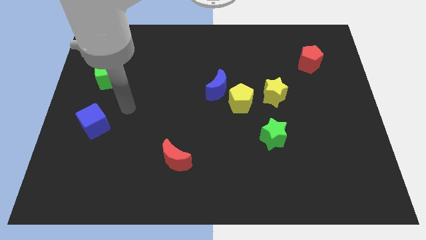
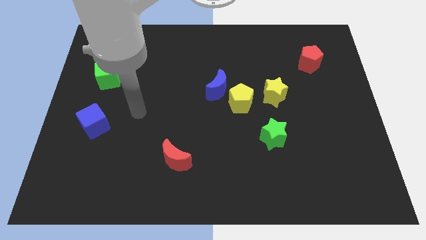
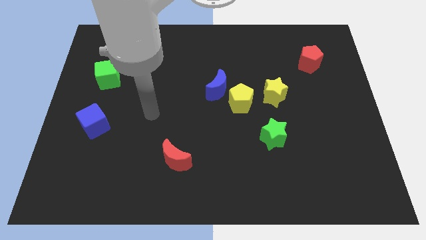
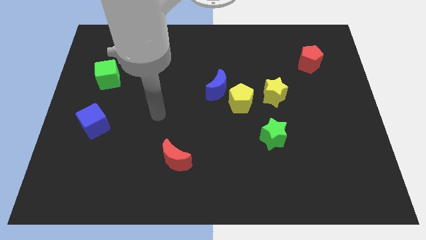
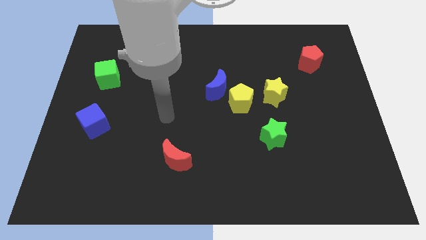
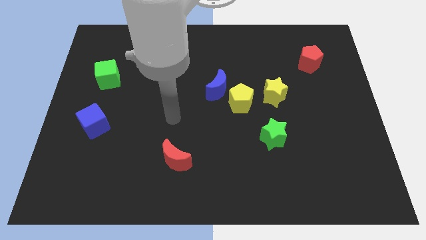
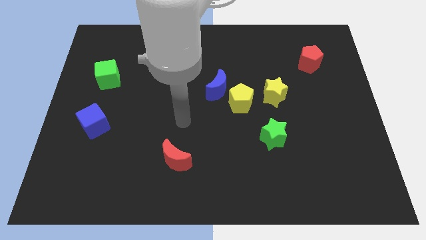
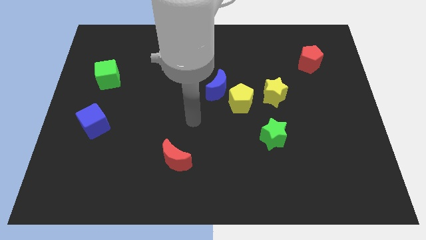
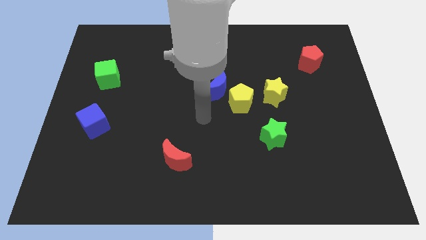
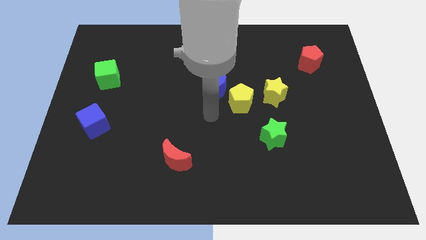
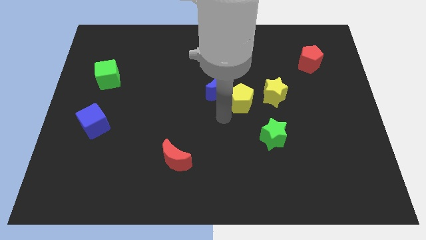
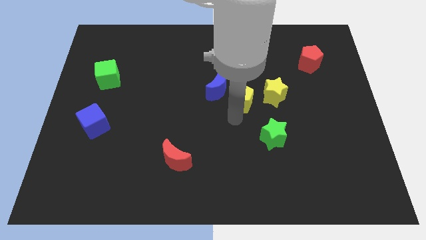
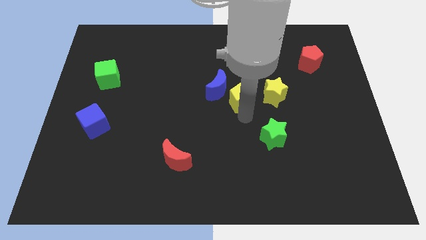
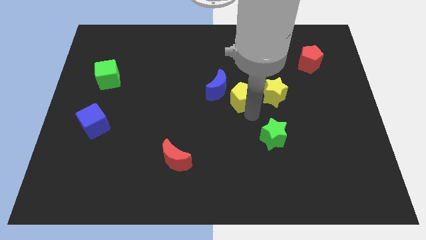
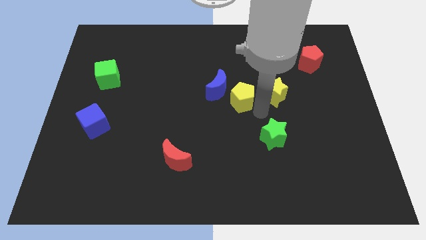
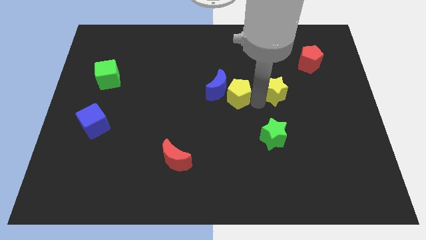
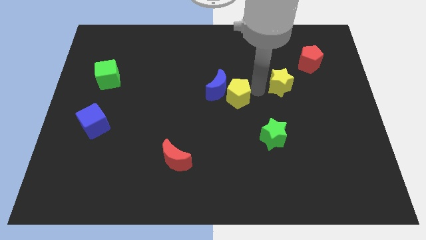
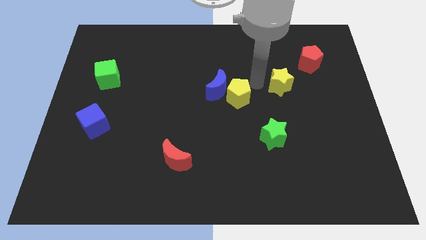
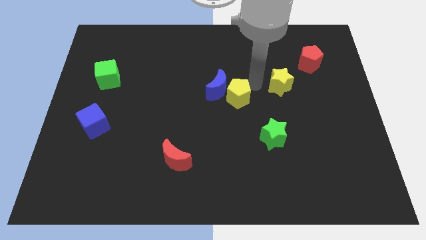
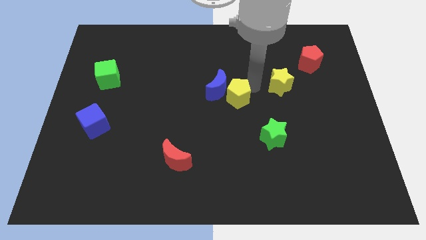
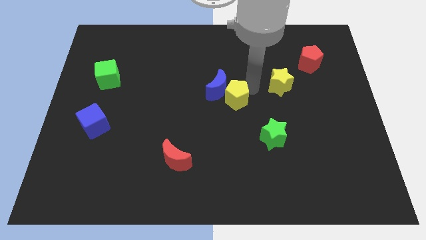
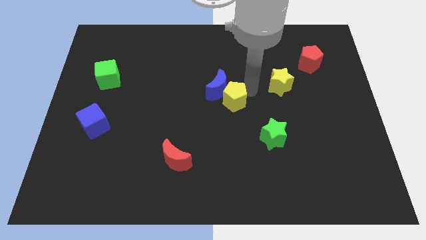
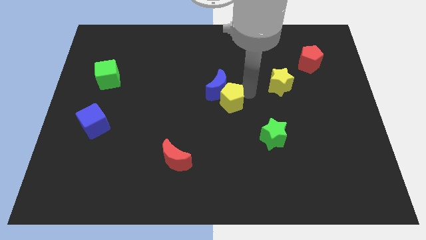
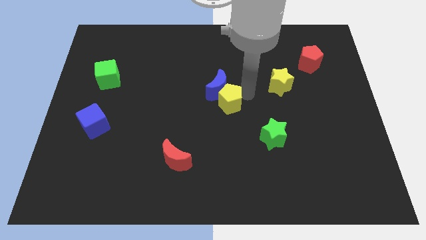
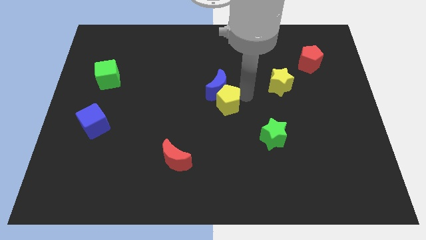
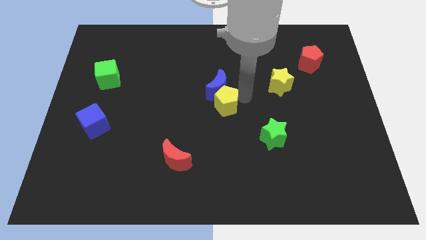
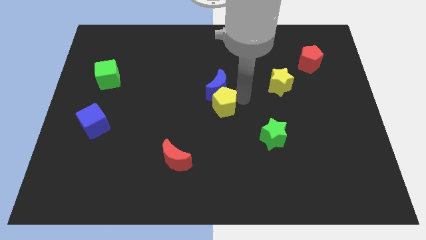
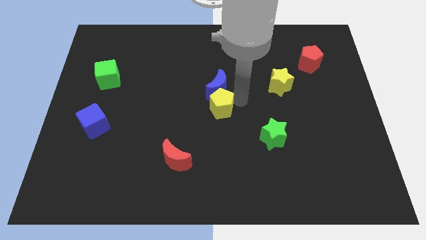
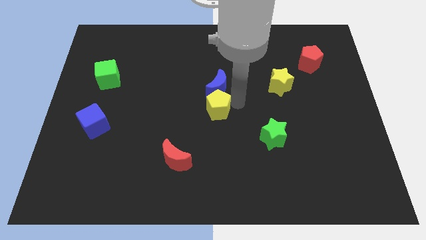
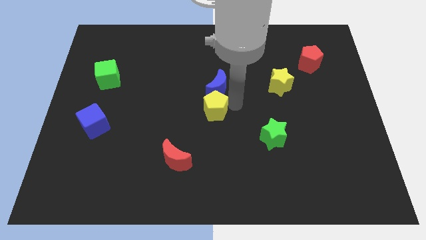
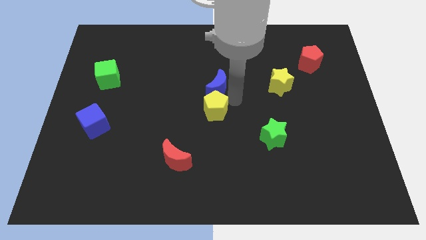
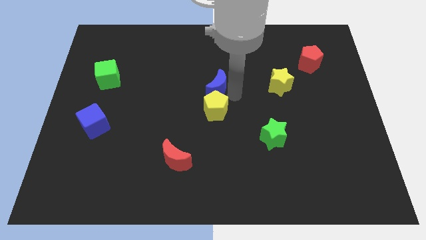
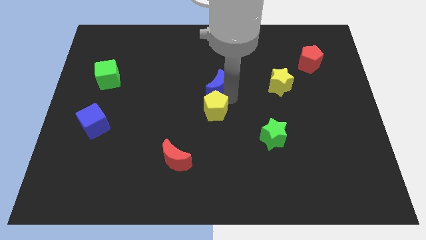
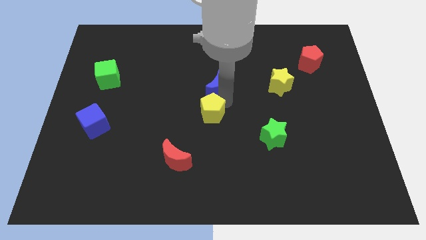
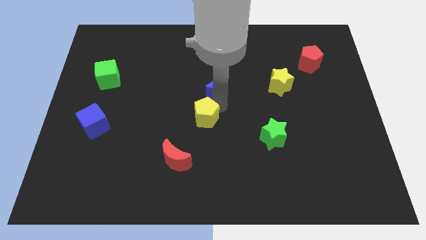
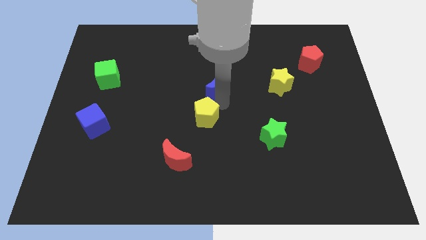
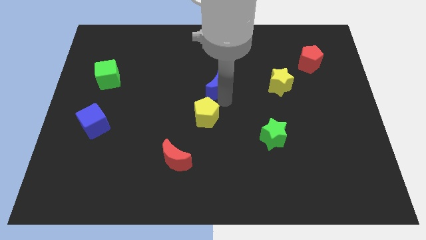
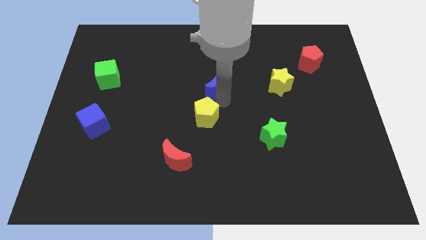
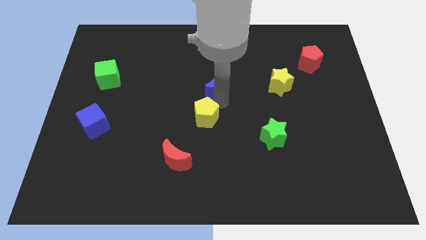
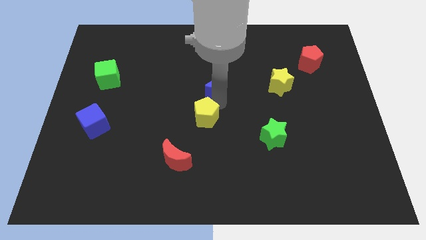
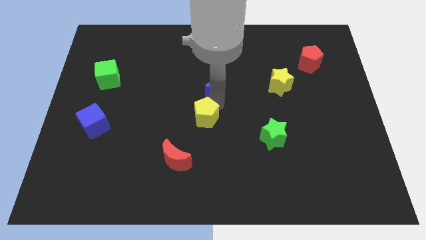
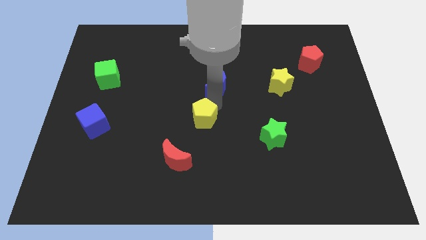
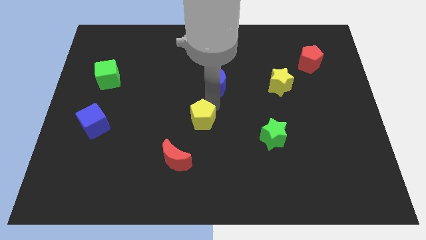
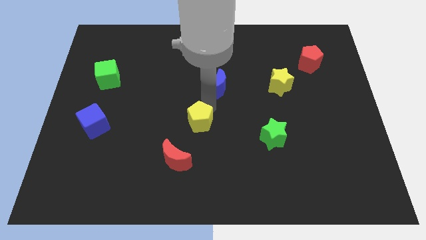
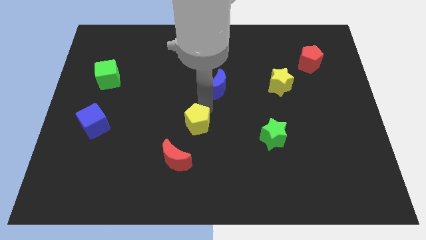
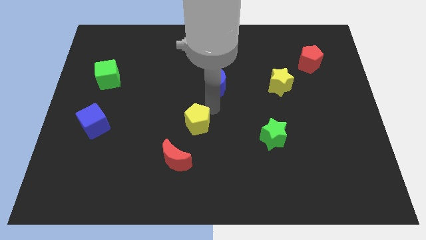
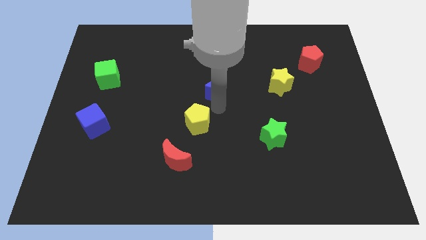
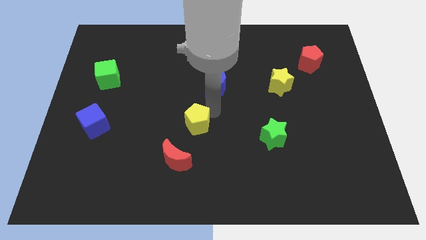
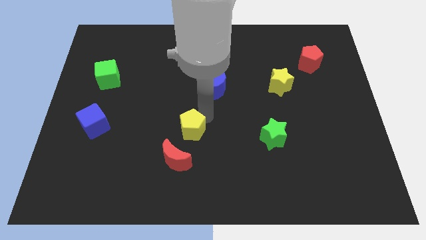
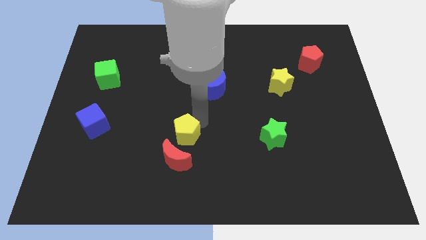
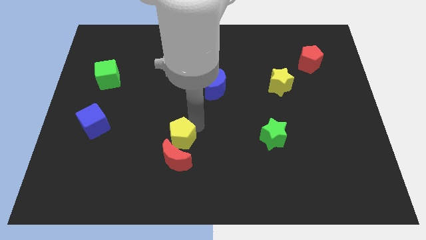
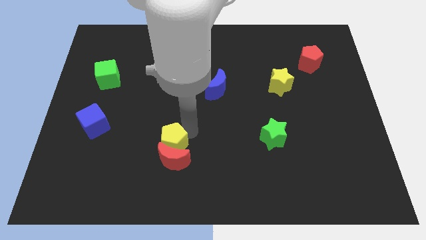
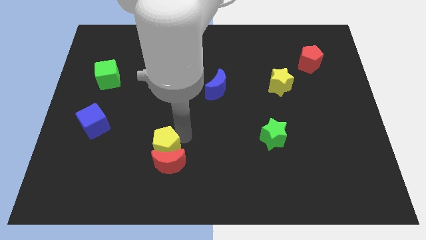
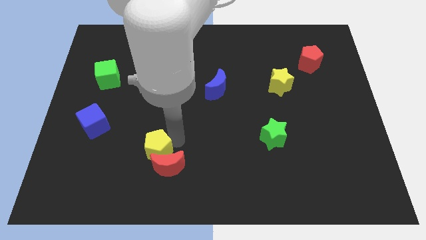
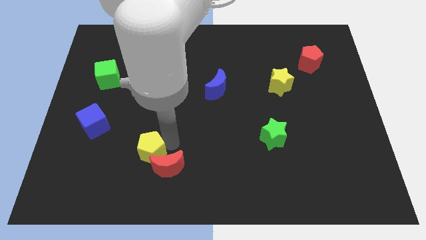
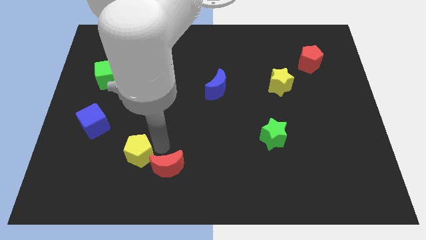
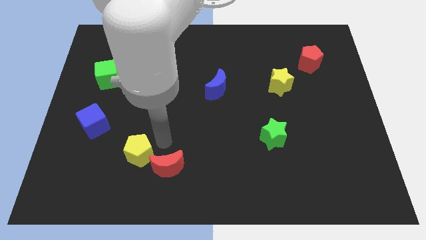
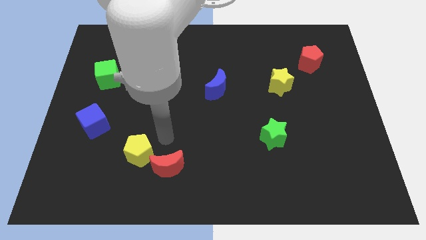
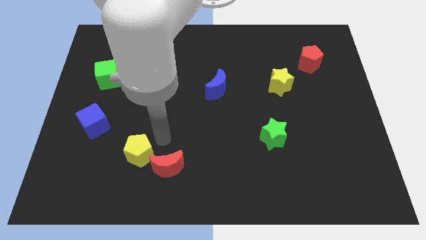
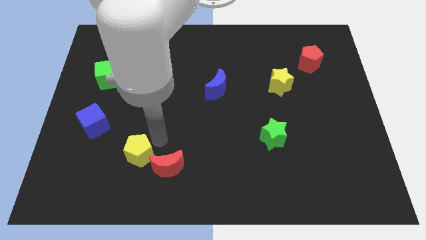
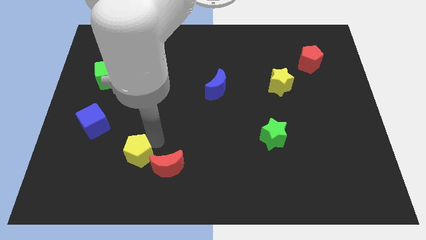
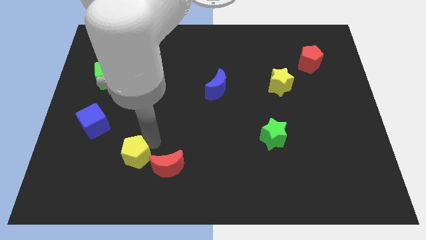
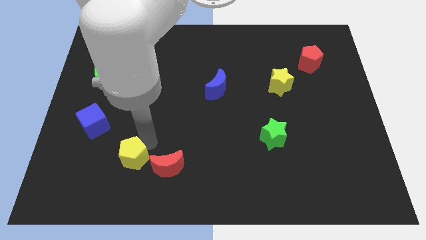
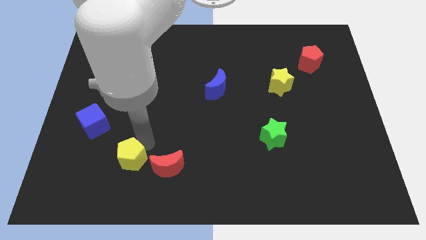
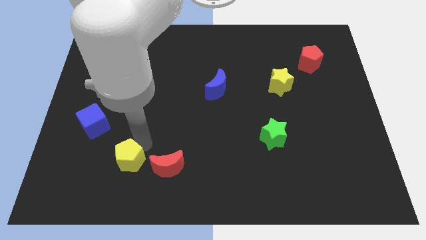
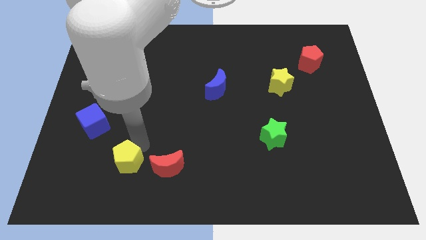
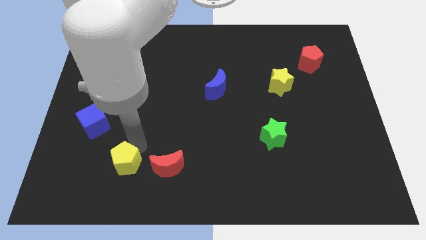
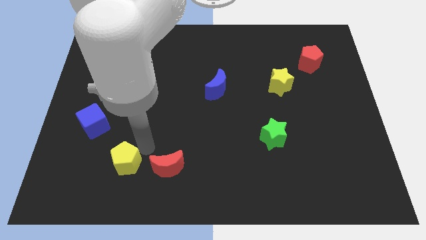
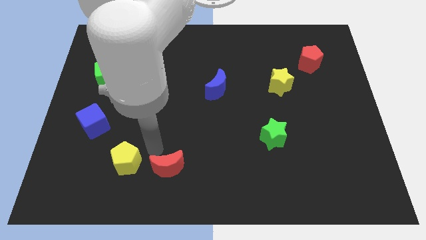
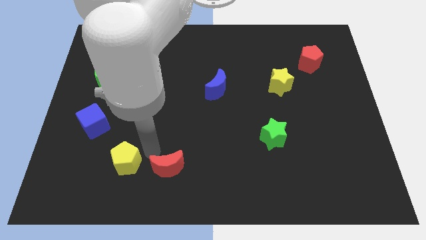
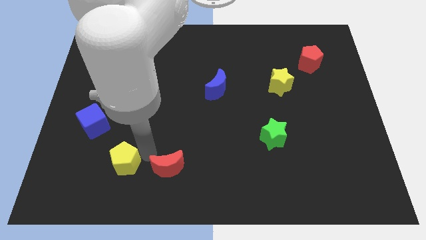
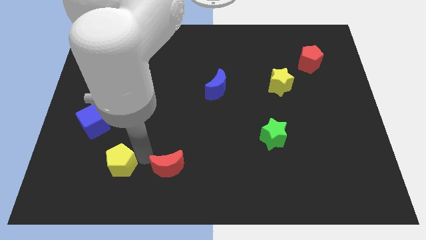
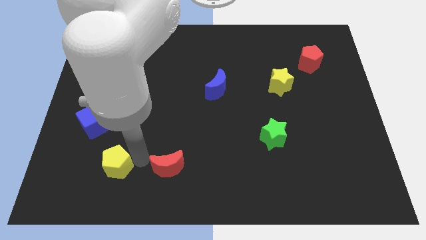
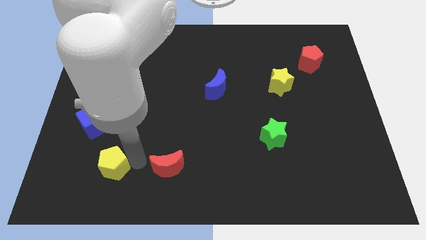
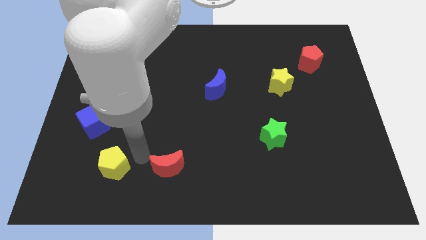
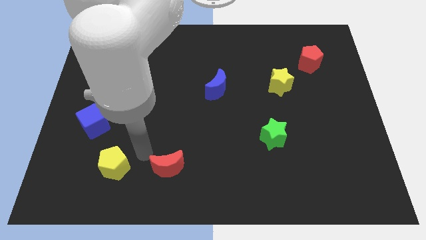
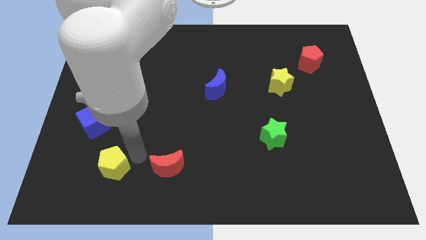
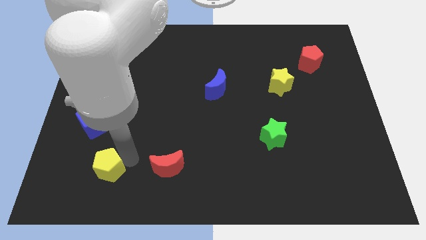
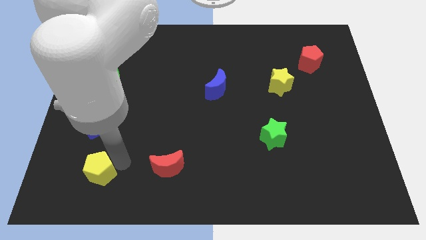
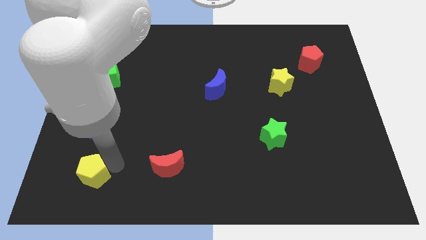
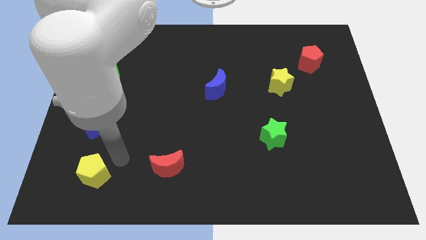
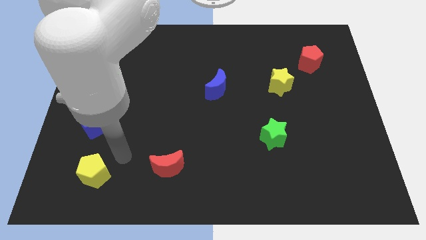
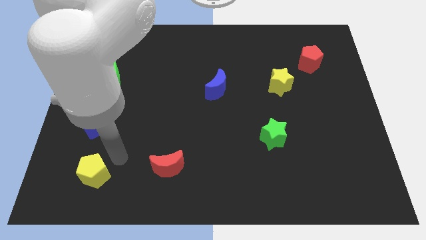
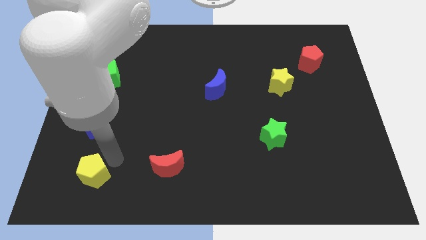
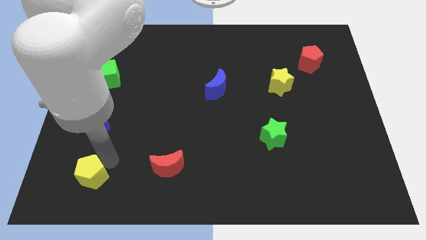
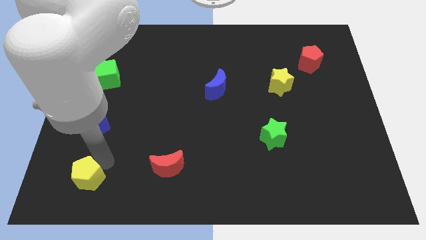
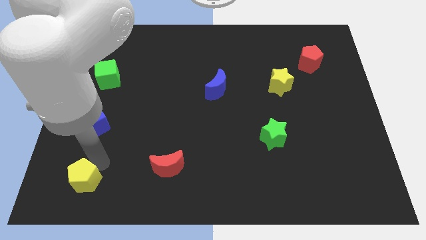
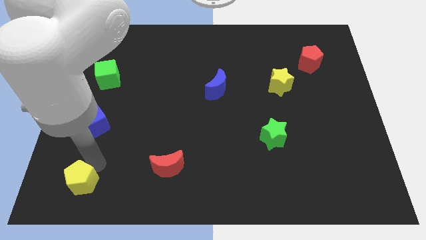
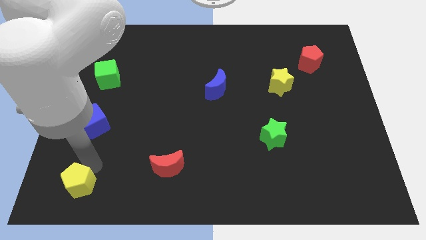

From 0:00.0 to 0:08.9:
push the yellow pentagon to the bottom left of the board
